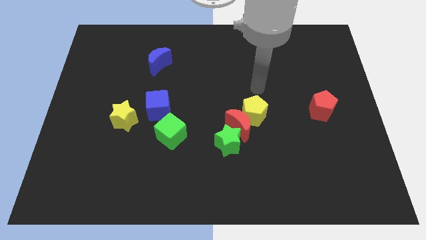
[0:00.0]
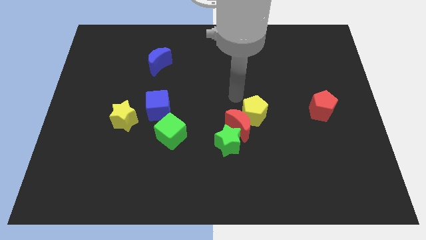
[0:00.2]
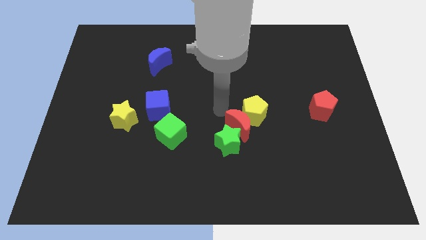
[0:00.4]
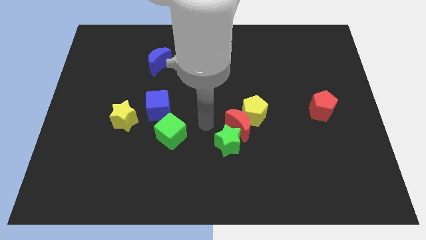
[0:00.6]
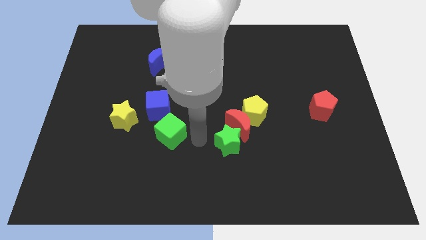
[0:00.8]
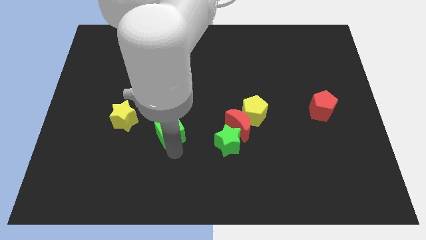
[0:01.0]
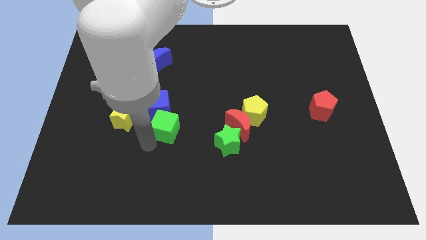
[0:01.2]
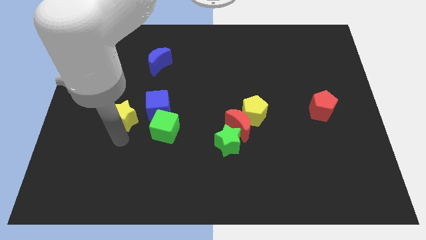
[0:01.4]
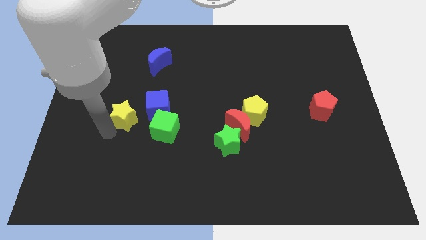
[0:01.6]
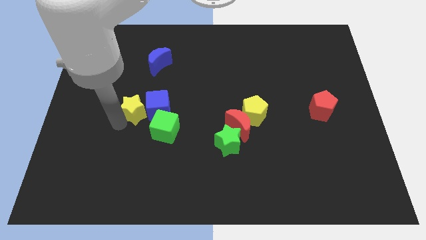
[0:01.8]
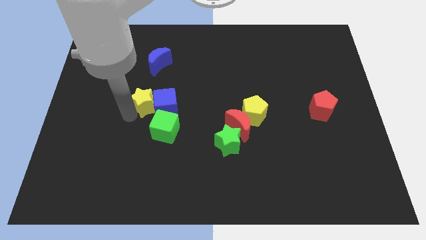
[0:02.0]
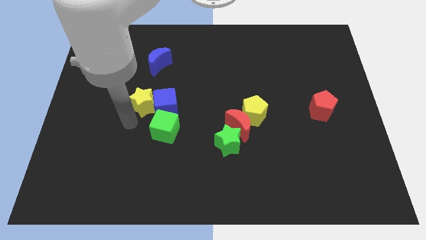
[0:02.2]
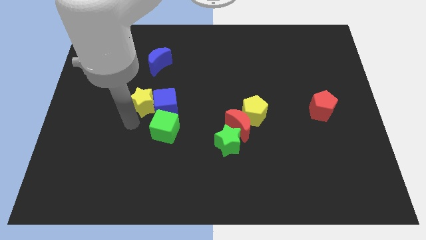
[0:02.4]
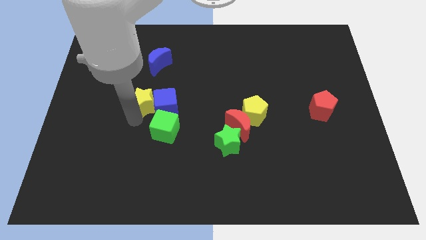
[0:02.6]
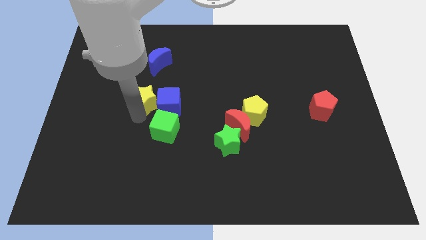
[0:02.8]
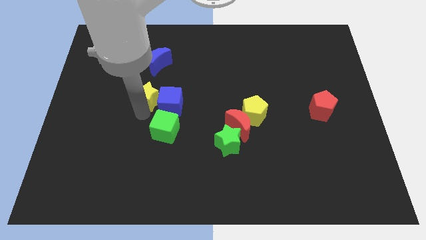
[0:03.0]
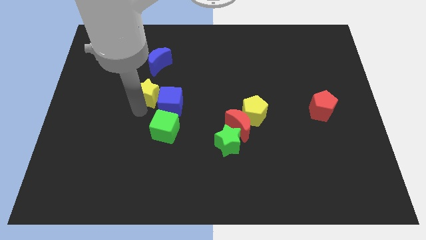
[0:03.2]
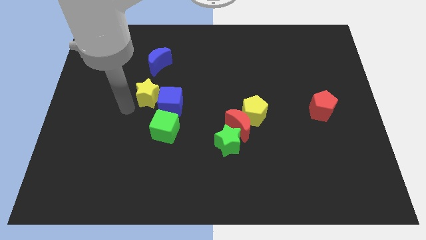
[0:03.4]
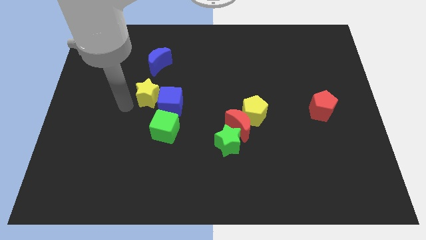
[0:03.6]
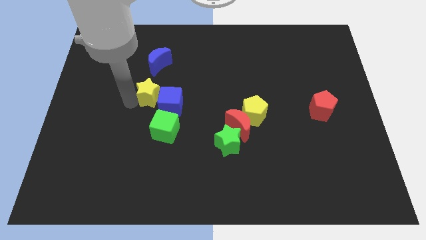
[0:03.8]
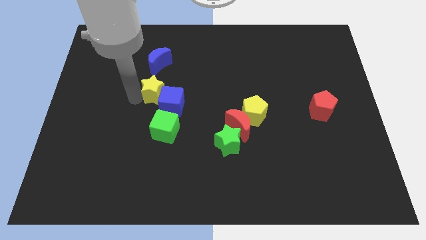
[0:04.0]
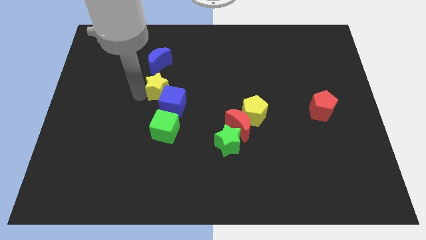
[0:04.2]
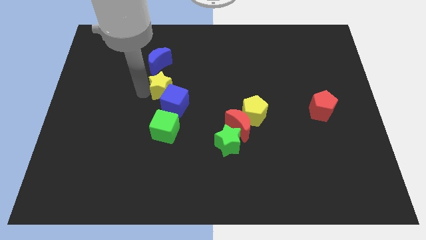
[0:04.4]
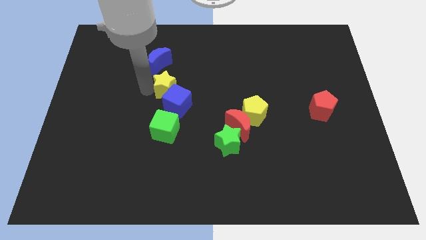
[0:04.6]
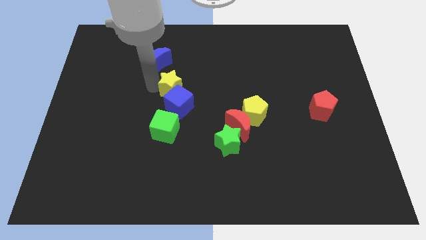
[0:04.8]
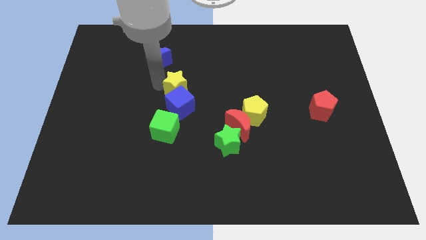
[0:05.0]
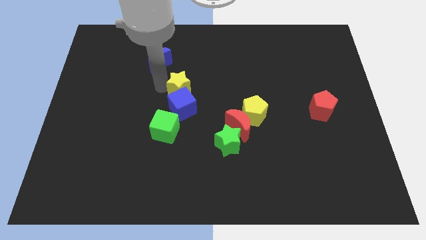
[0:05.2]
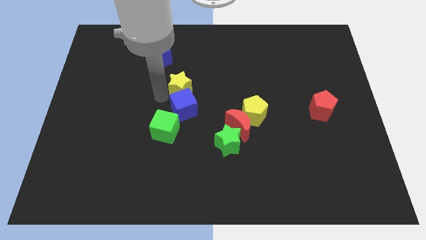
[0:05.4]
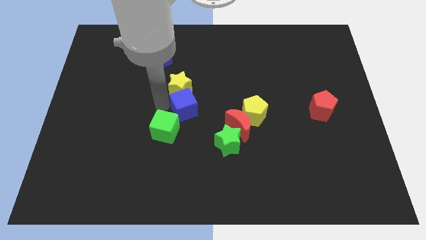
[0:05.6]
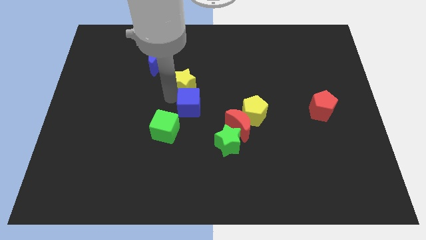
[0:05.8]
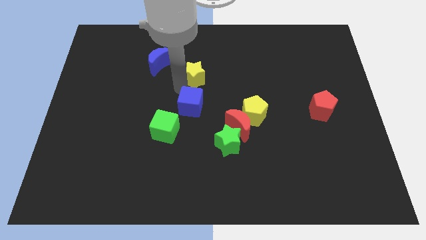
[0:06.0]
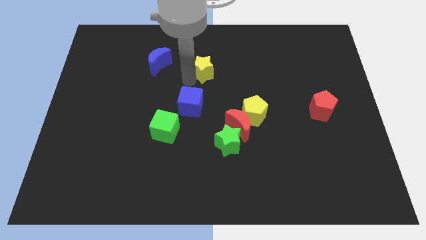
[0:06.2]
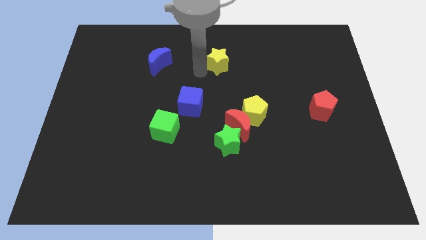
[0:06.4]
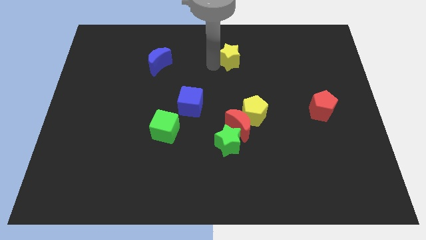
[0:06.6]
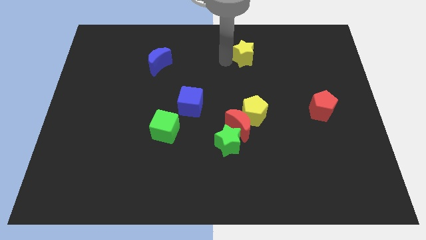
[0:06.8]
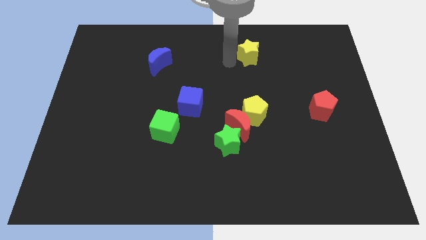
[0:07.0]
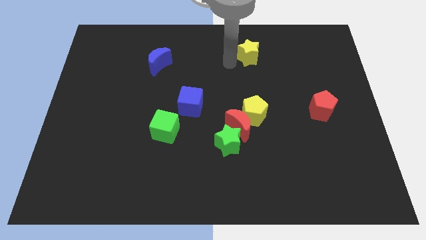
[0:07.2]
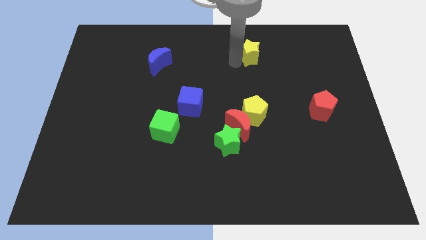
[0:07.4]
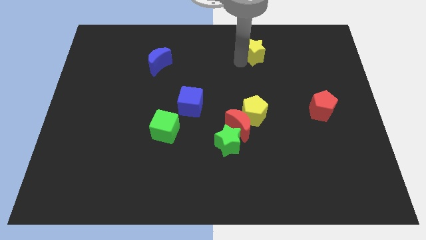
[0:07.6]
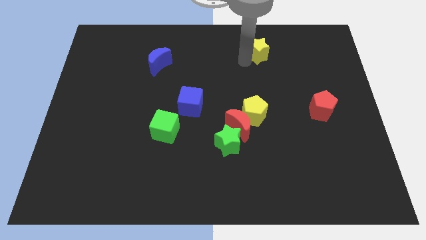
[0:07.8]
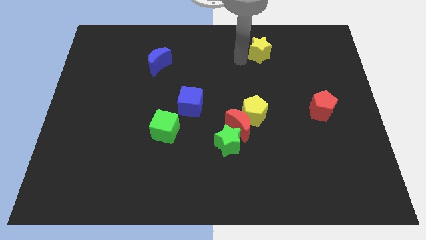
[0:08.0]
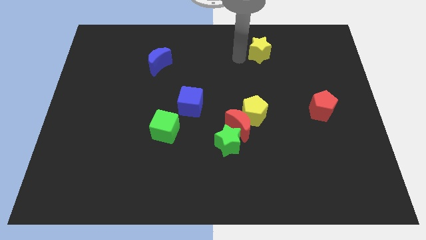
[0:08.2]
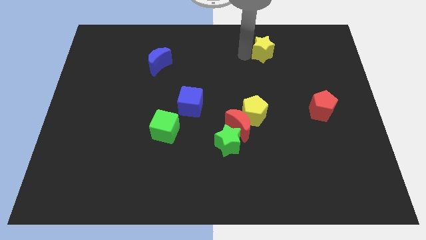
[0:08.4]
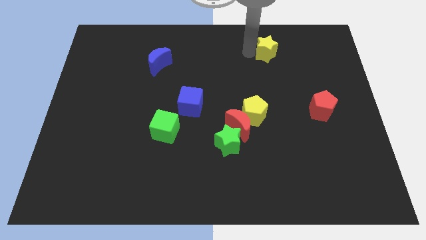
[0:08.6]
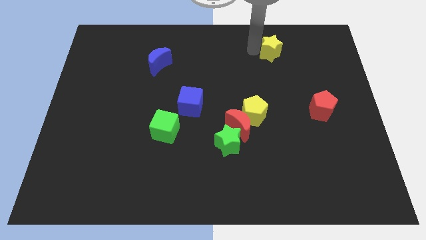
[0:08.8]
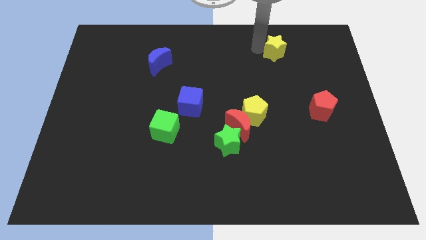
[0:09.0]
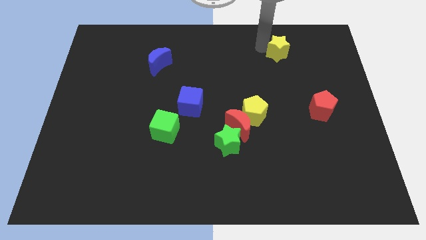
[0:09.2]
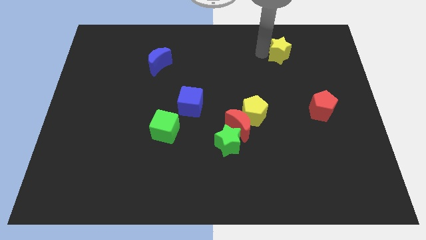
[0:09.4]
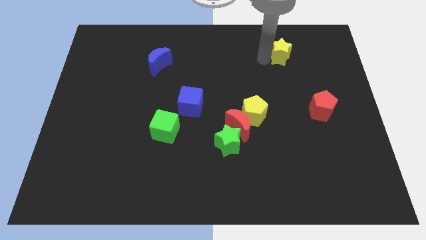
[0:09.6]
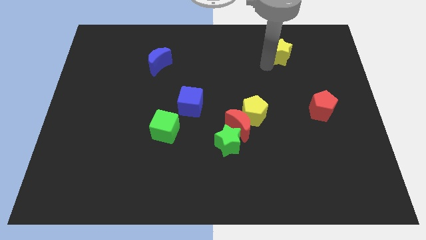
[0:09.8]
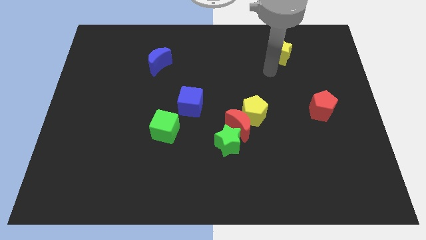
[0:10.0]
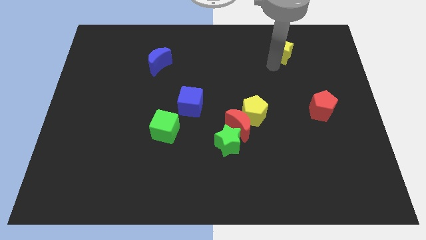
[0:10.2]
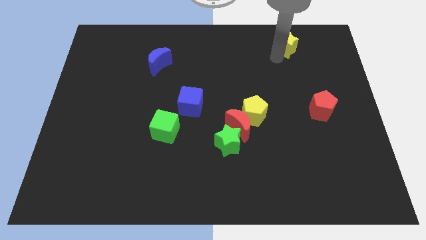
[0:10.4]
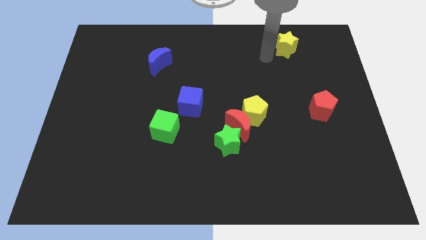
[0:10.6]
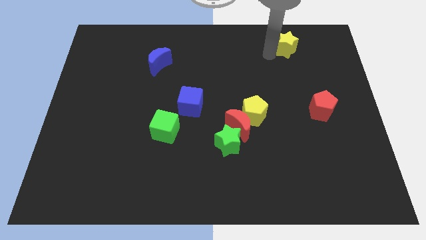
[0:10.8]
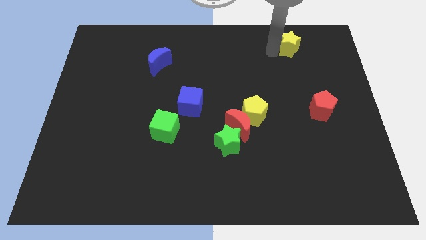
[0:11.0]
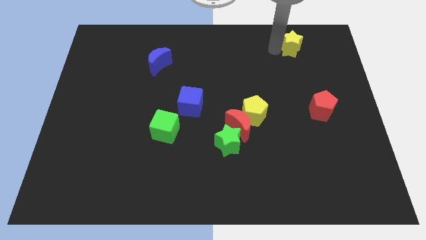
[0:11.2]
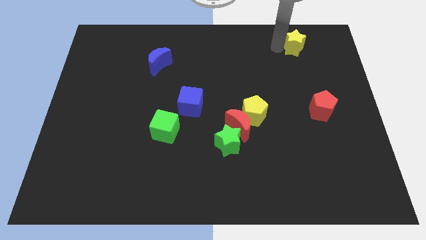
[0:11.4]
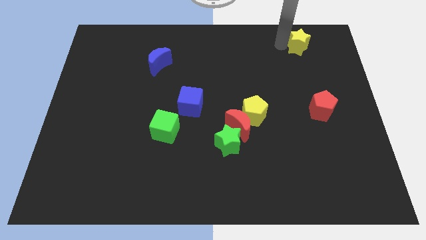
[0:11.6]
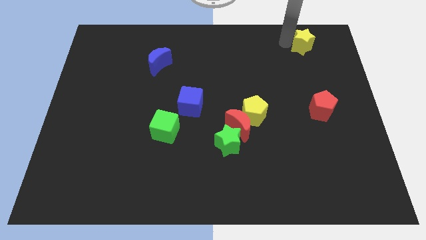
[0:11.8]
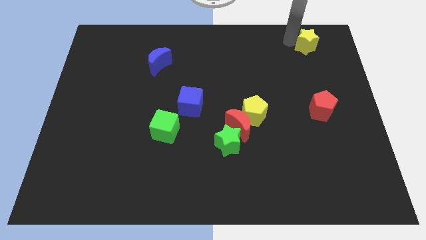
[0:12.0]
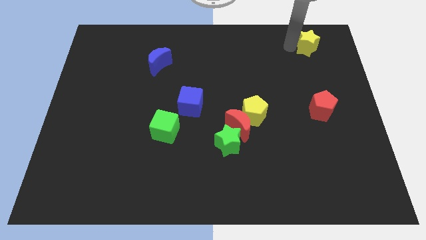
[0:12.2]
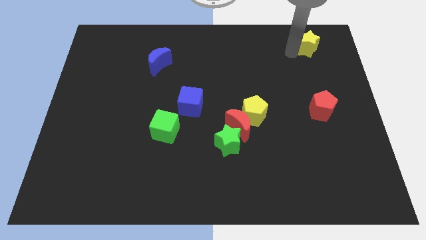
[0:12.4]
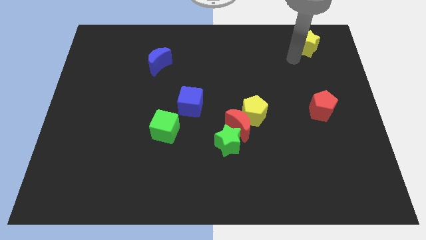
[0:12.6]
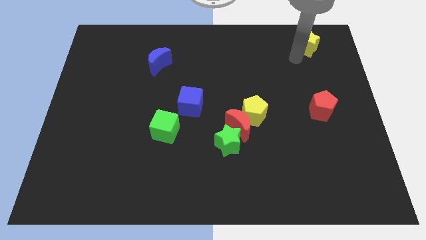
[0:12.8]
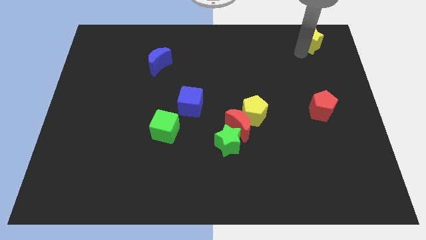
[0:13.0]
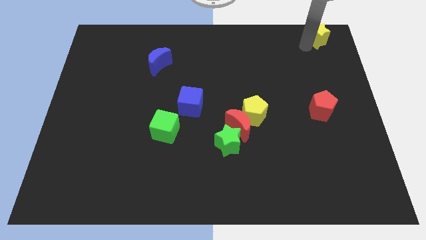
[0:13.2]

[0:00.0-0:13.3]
put the yellow star to the upper right corner
